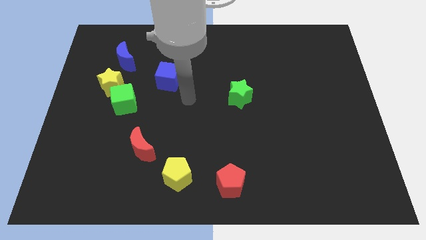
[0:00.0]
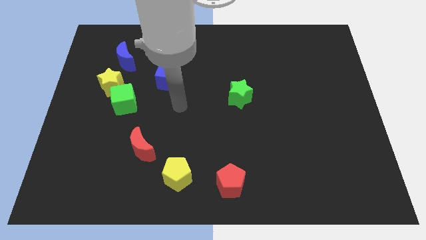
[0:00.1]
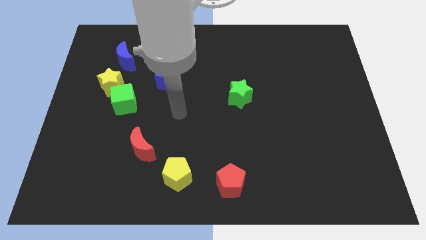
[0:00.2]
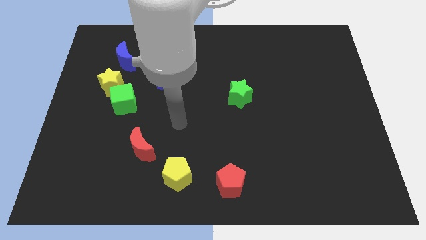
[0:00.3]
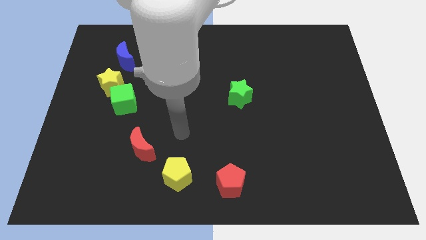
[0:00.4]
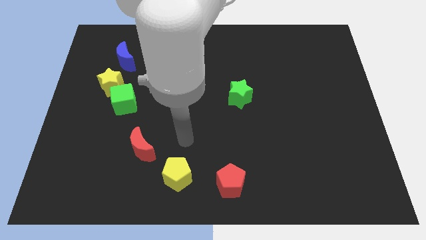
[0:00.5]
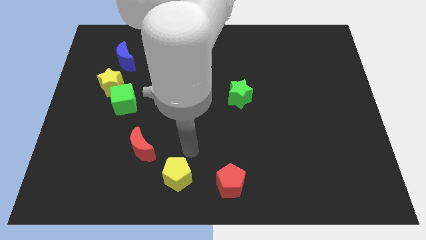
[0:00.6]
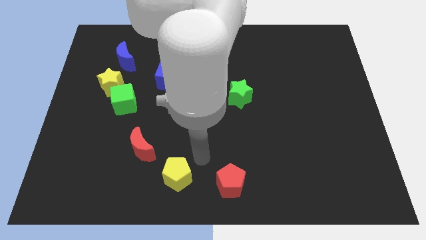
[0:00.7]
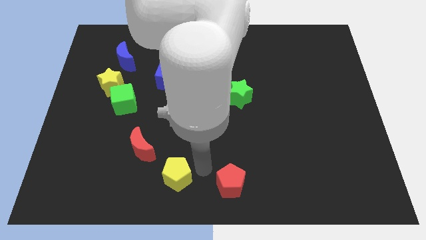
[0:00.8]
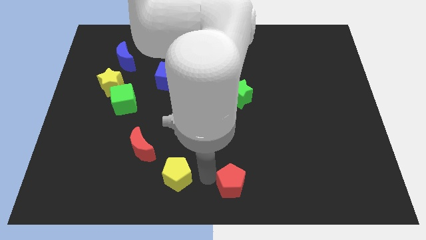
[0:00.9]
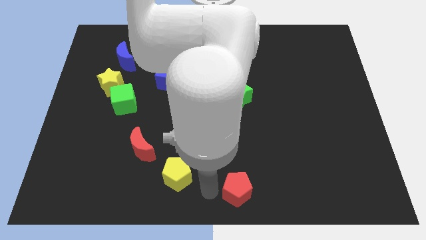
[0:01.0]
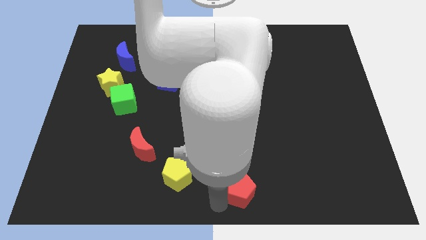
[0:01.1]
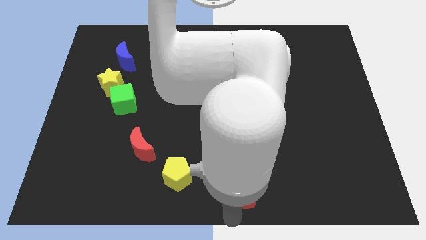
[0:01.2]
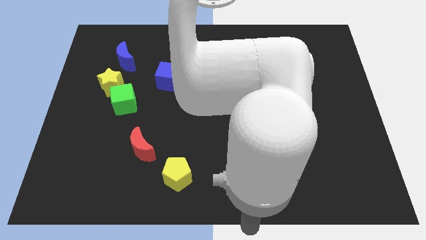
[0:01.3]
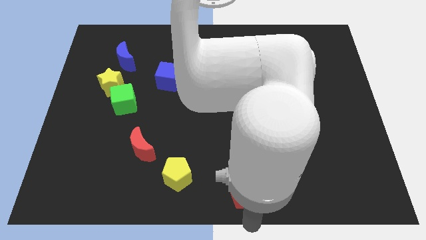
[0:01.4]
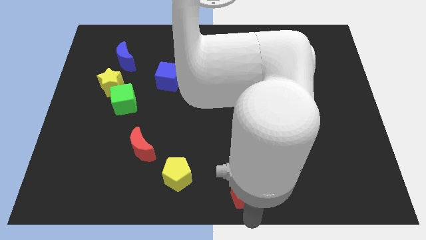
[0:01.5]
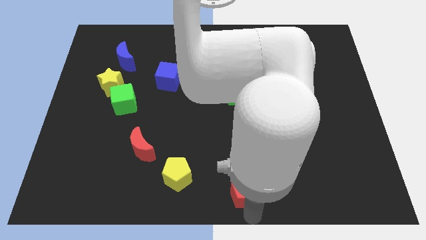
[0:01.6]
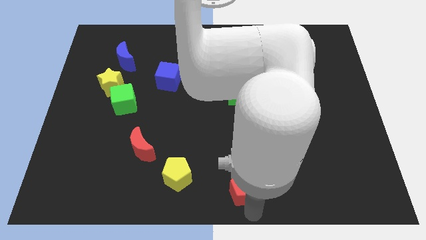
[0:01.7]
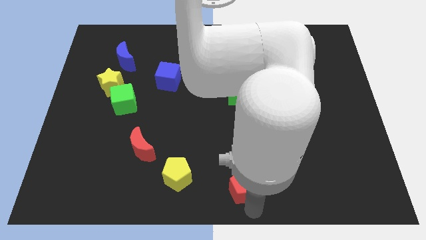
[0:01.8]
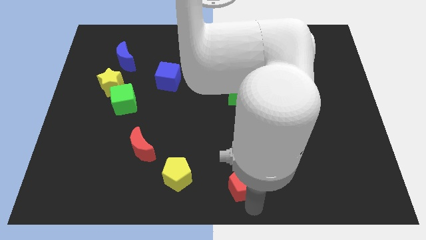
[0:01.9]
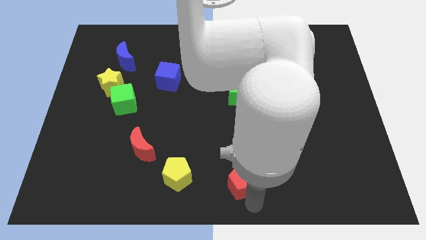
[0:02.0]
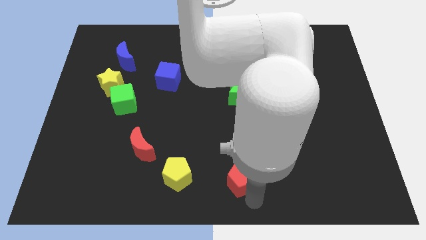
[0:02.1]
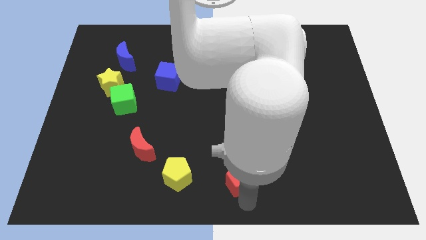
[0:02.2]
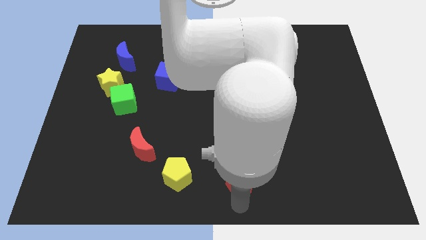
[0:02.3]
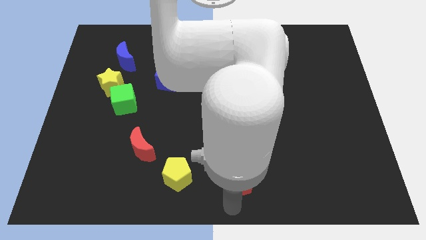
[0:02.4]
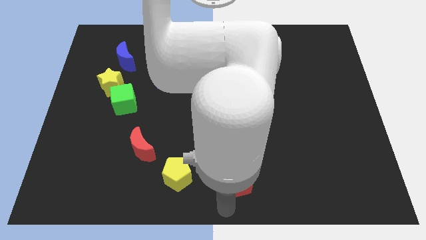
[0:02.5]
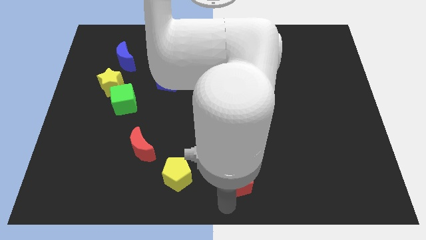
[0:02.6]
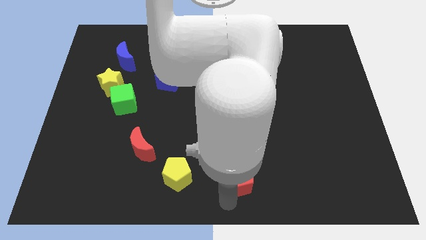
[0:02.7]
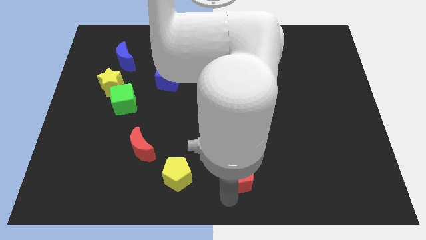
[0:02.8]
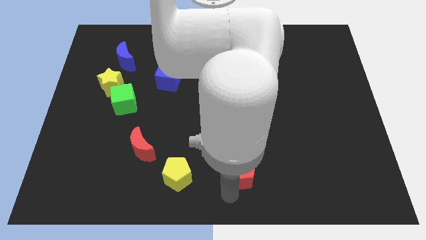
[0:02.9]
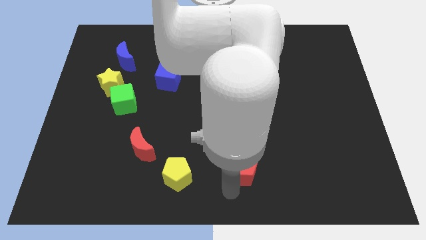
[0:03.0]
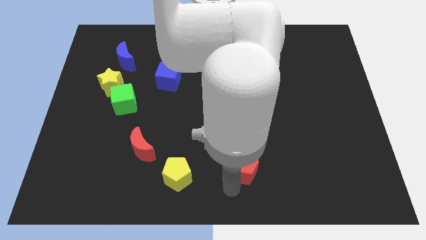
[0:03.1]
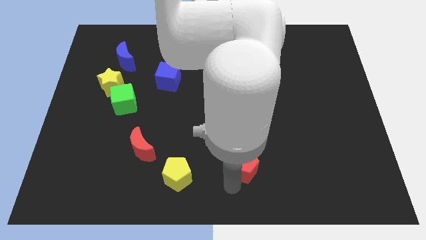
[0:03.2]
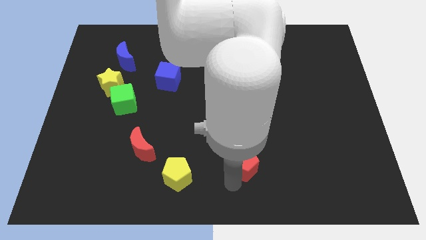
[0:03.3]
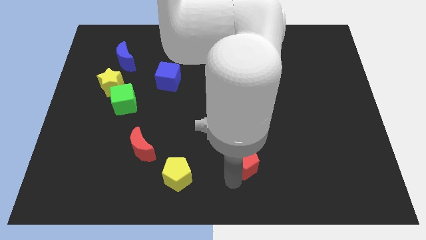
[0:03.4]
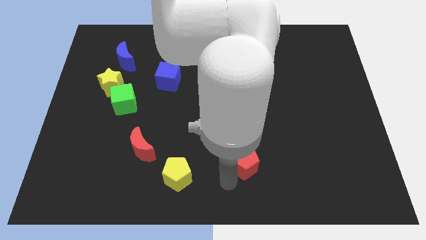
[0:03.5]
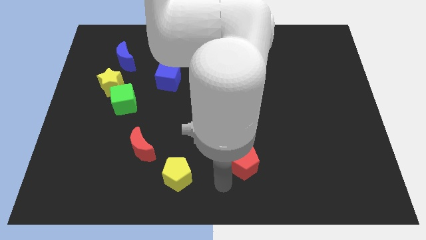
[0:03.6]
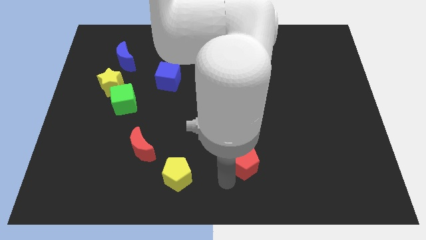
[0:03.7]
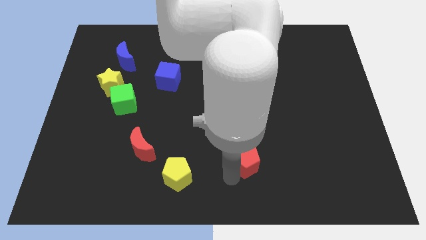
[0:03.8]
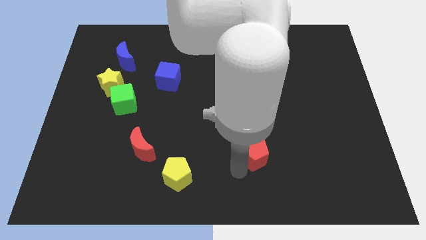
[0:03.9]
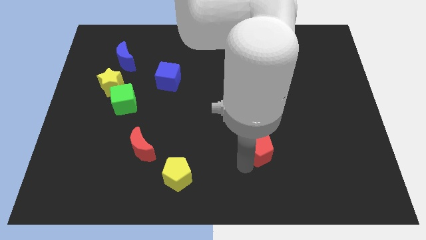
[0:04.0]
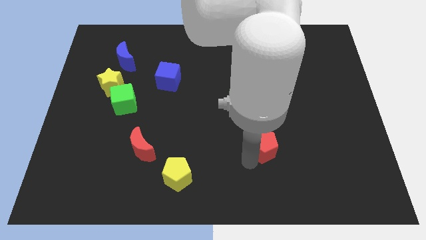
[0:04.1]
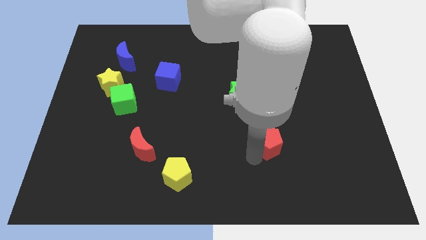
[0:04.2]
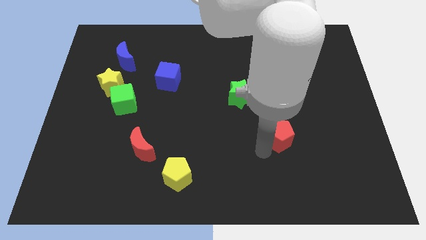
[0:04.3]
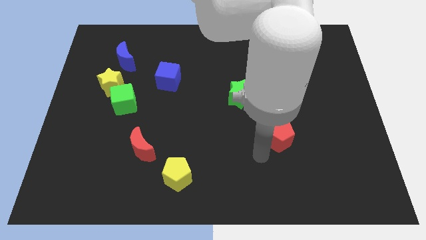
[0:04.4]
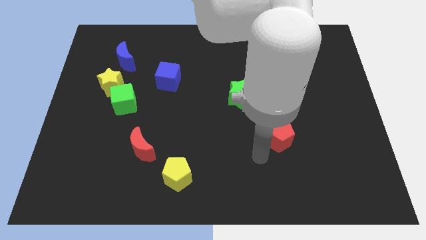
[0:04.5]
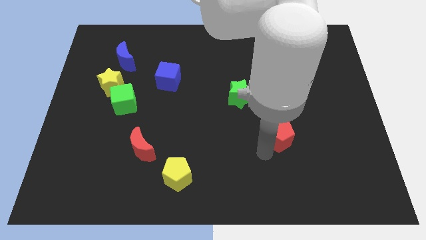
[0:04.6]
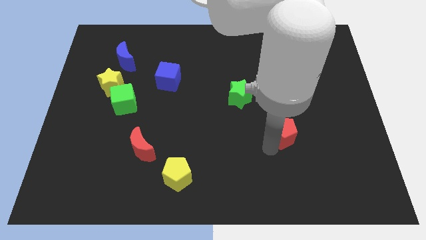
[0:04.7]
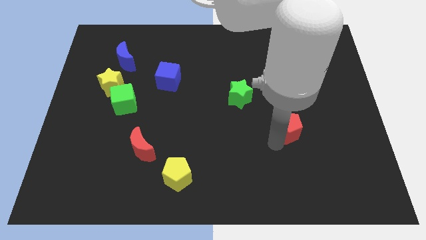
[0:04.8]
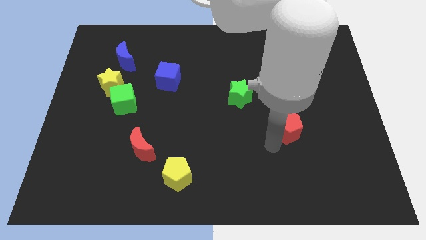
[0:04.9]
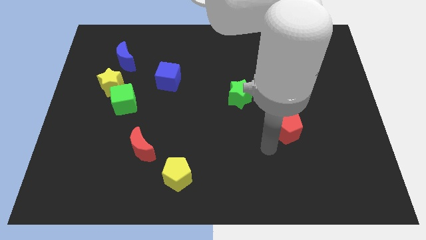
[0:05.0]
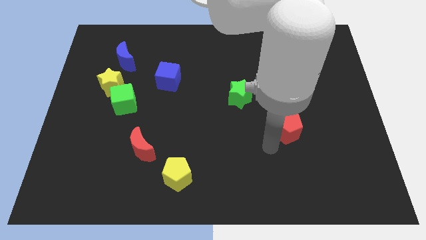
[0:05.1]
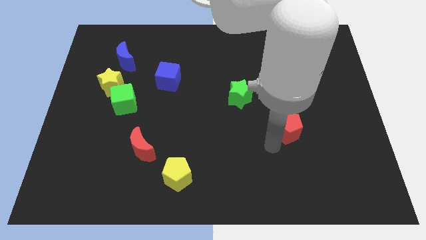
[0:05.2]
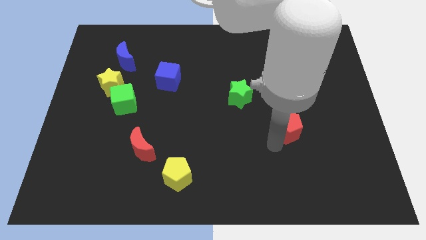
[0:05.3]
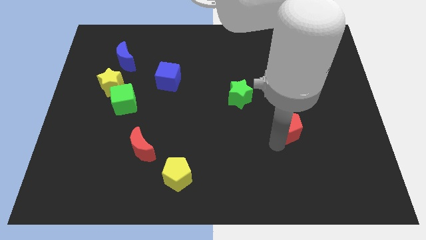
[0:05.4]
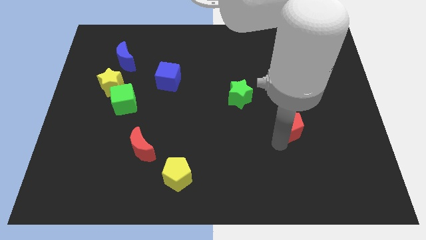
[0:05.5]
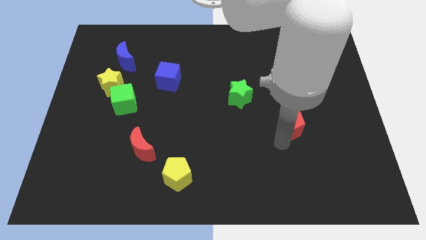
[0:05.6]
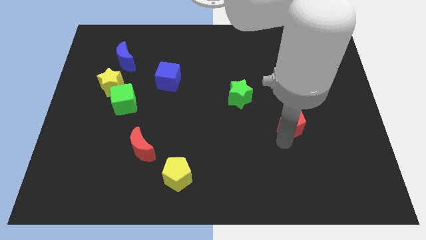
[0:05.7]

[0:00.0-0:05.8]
push the red pentagon upwards and then right

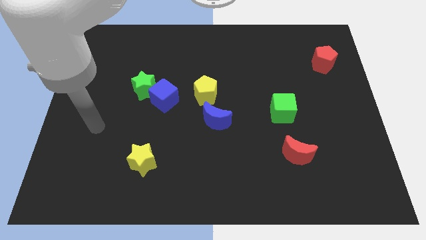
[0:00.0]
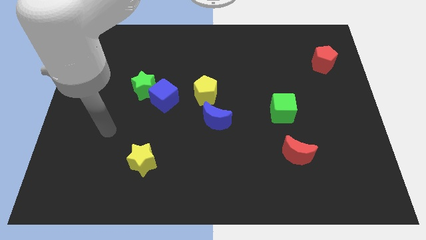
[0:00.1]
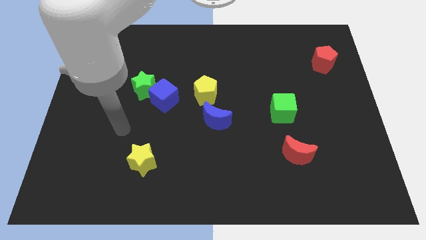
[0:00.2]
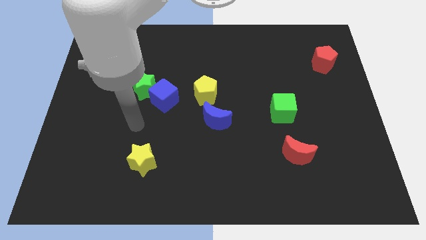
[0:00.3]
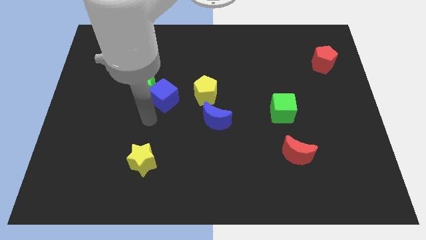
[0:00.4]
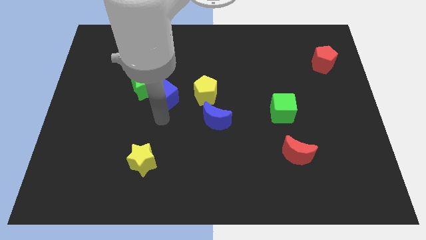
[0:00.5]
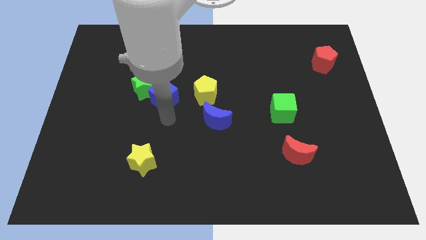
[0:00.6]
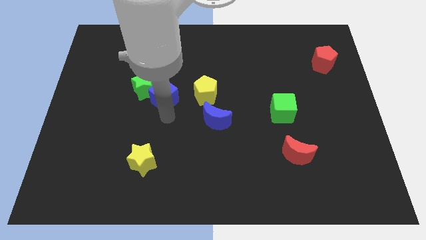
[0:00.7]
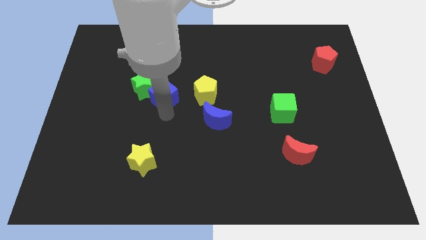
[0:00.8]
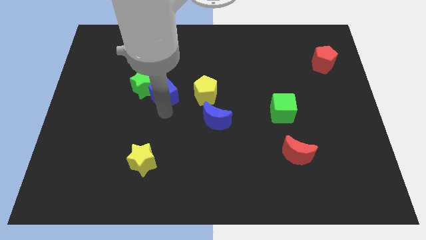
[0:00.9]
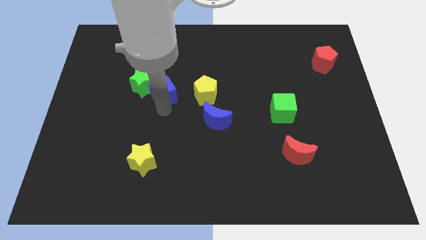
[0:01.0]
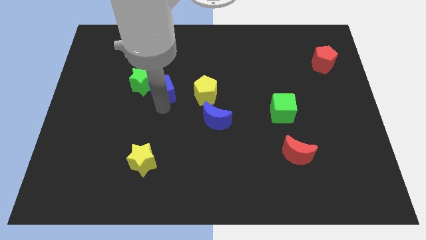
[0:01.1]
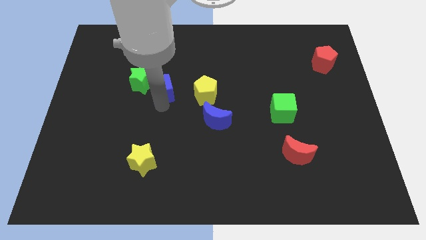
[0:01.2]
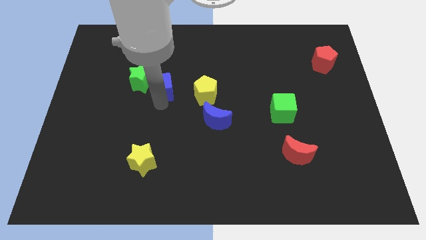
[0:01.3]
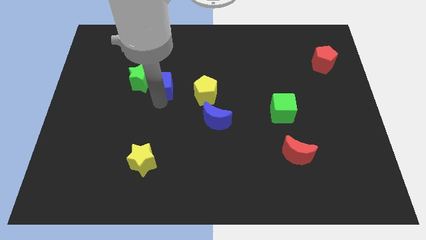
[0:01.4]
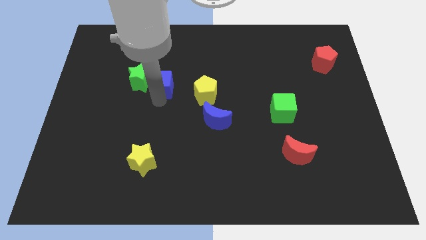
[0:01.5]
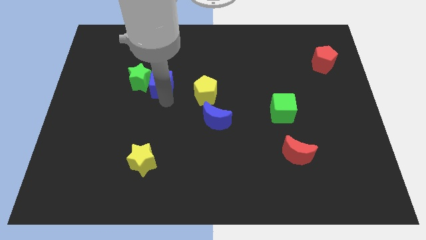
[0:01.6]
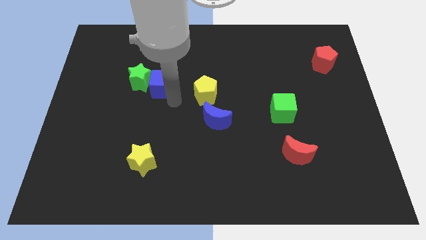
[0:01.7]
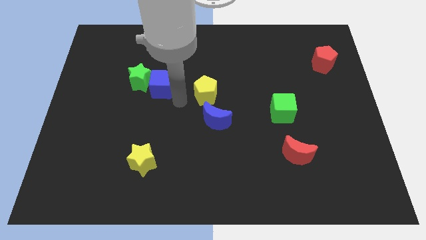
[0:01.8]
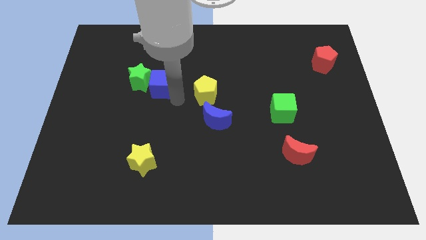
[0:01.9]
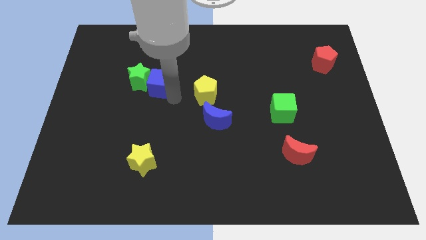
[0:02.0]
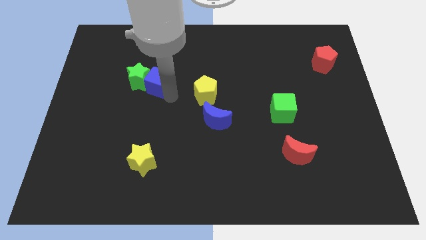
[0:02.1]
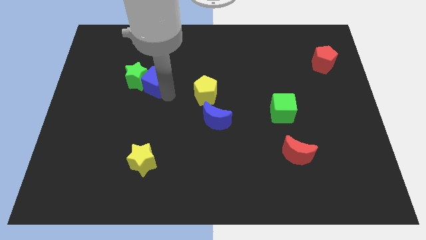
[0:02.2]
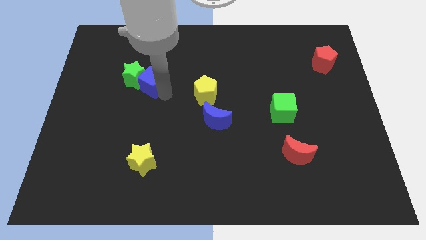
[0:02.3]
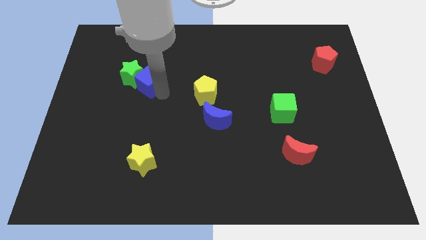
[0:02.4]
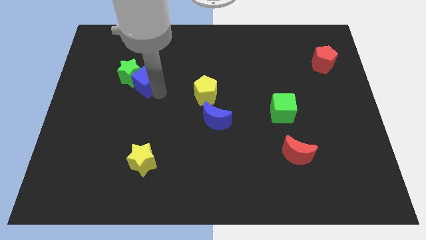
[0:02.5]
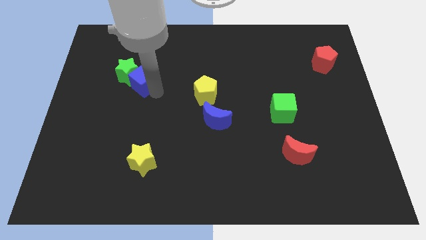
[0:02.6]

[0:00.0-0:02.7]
push the blue cube slightly upwards and then left
